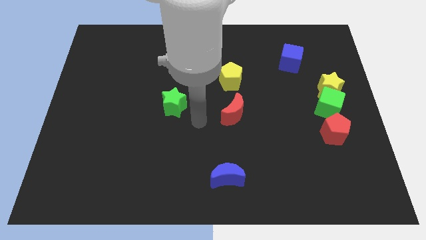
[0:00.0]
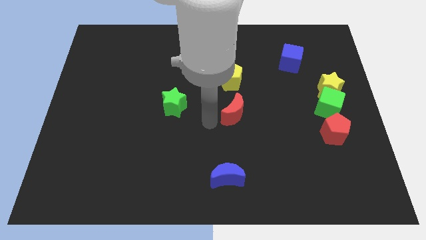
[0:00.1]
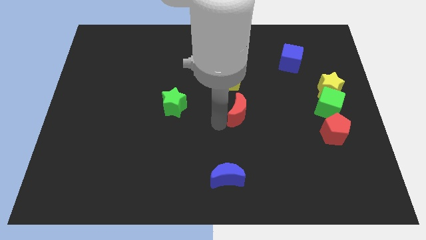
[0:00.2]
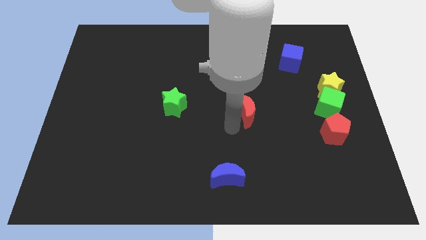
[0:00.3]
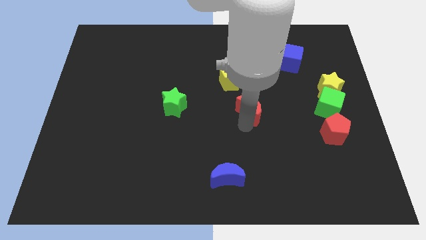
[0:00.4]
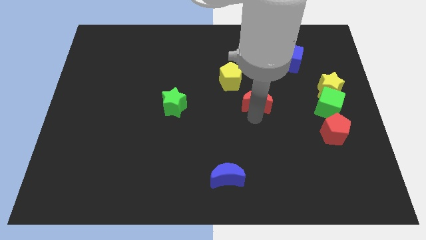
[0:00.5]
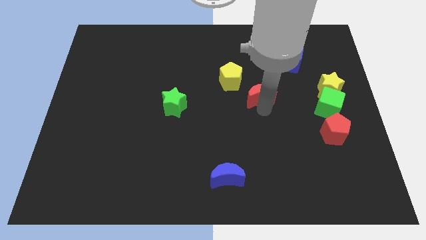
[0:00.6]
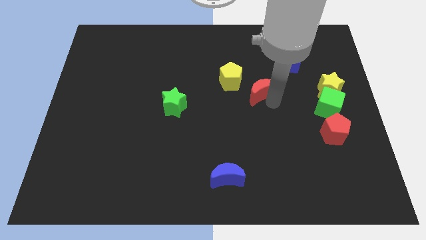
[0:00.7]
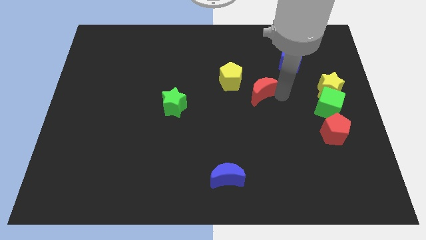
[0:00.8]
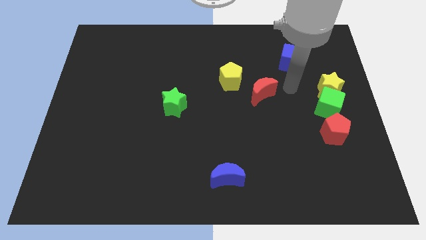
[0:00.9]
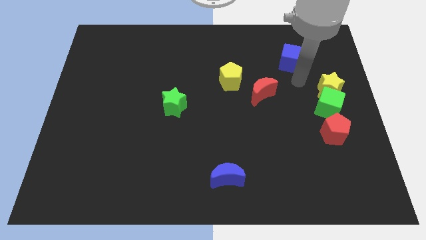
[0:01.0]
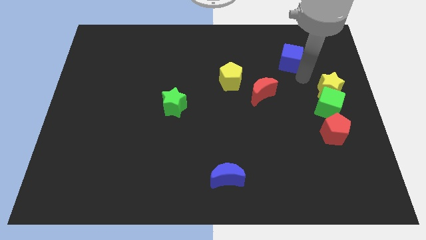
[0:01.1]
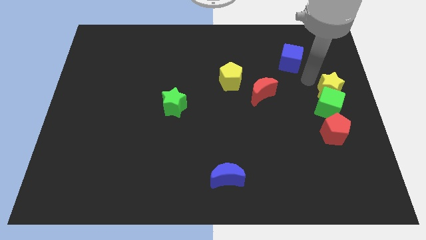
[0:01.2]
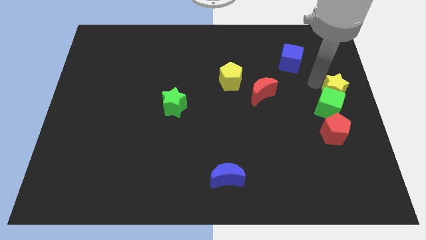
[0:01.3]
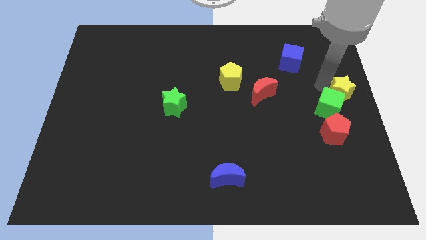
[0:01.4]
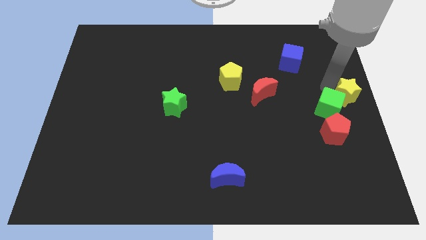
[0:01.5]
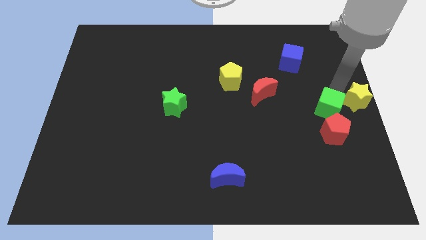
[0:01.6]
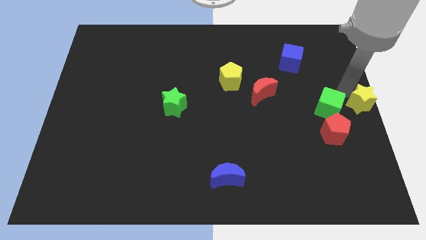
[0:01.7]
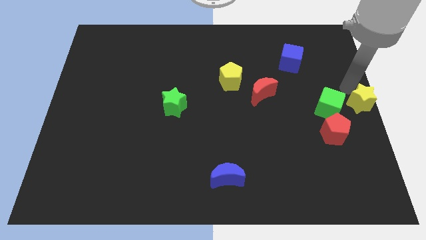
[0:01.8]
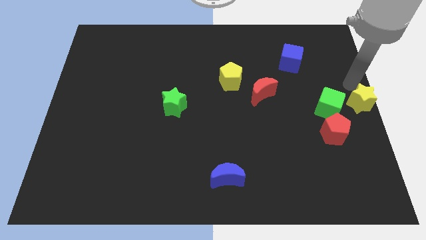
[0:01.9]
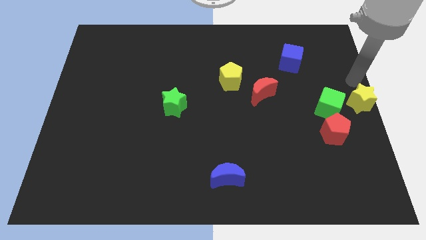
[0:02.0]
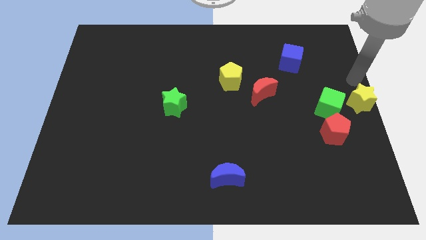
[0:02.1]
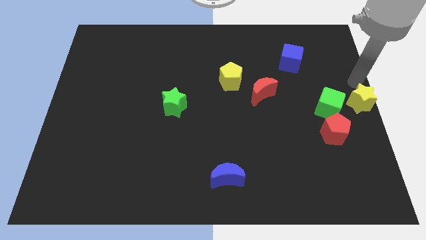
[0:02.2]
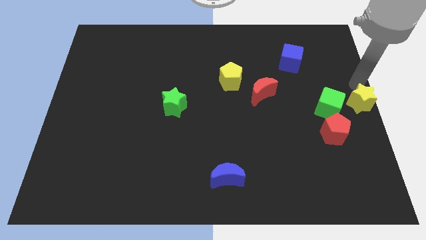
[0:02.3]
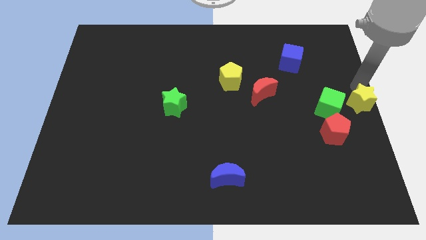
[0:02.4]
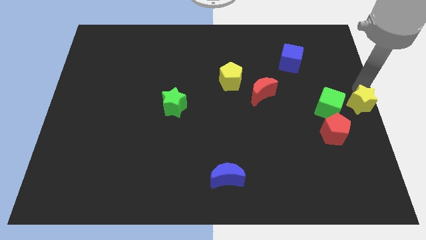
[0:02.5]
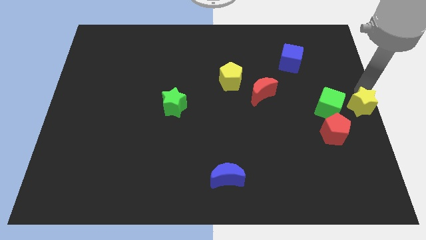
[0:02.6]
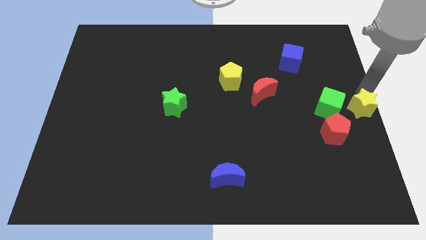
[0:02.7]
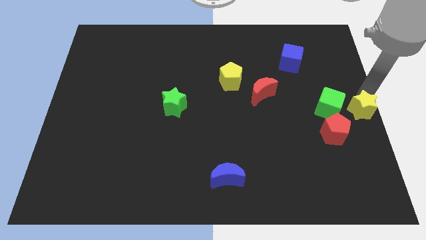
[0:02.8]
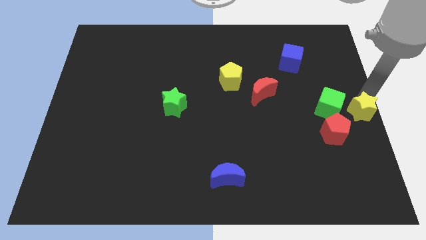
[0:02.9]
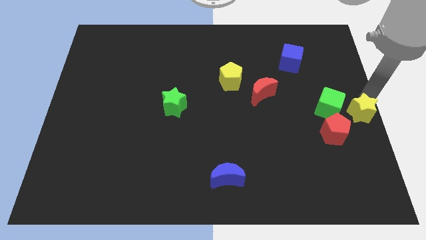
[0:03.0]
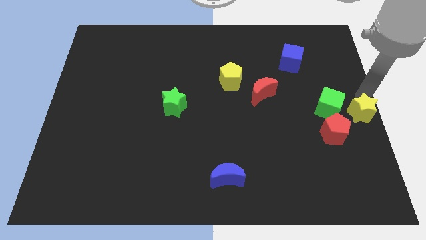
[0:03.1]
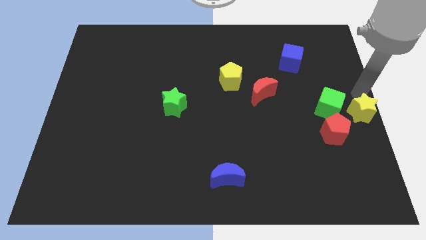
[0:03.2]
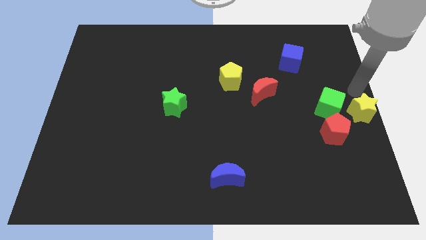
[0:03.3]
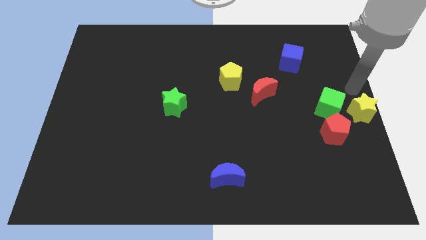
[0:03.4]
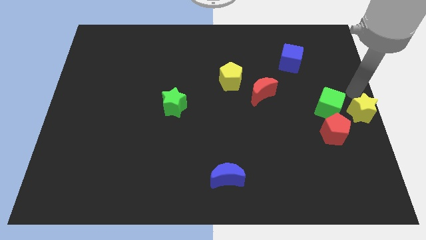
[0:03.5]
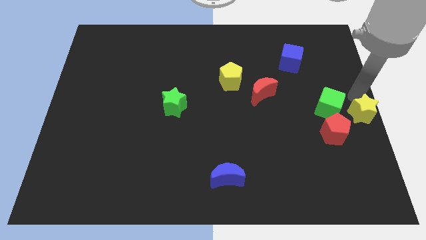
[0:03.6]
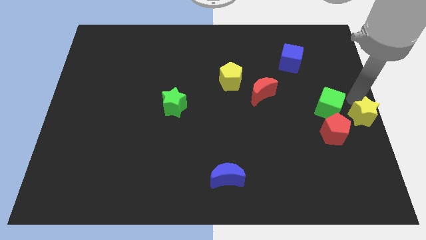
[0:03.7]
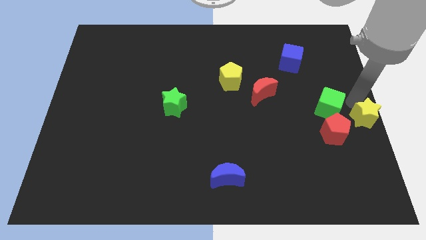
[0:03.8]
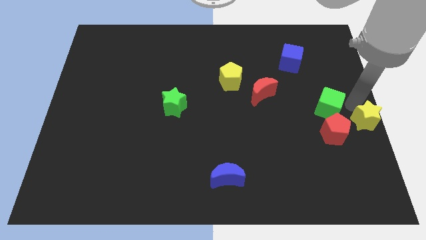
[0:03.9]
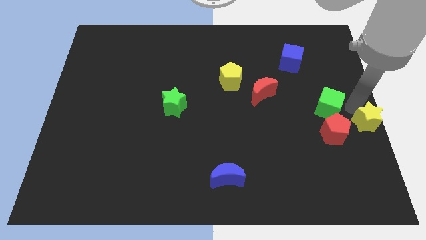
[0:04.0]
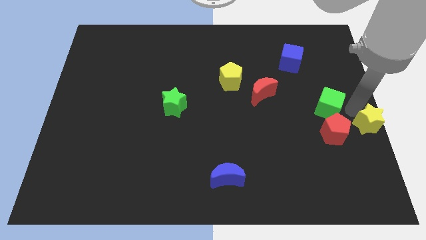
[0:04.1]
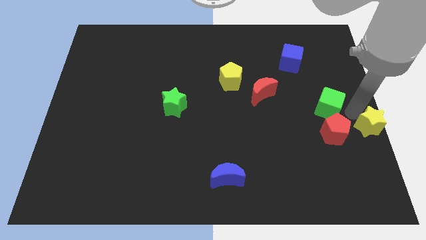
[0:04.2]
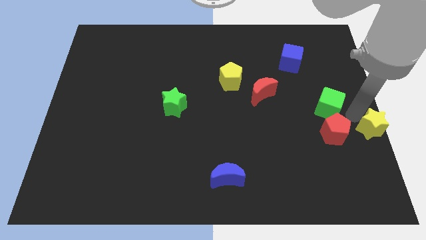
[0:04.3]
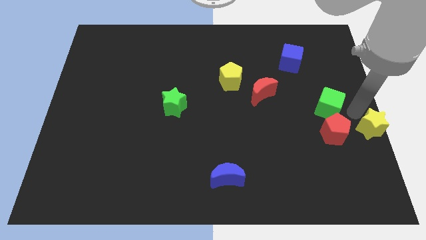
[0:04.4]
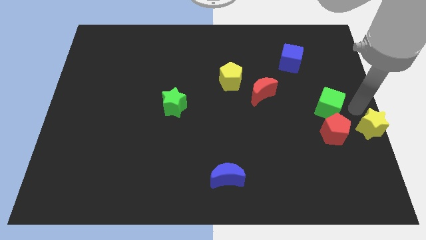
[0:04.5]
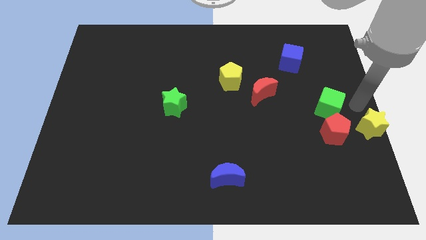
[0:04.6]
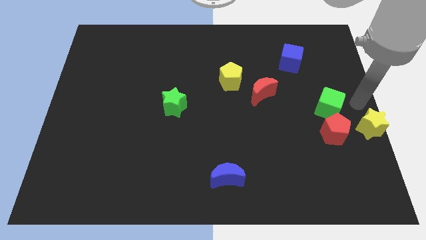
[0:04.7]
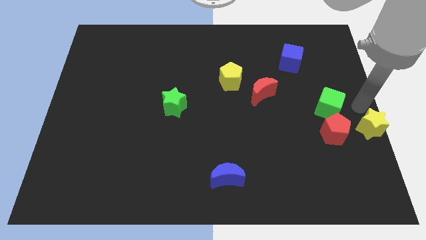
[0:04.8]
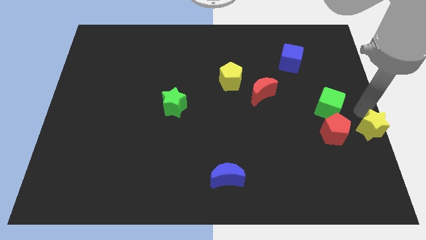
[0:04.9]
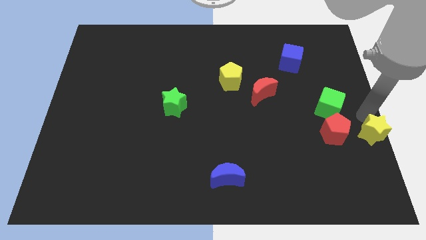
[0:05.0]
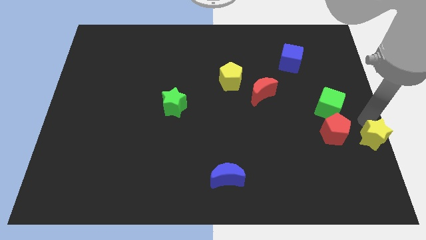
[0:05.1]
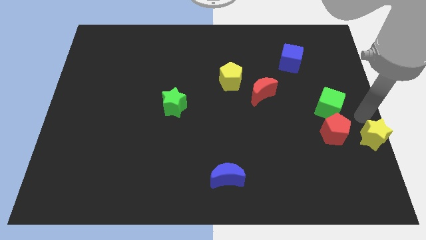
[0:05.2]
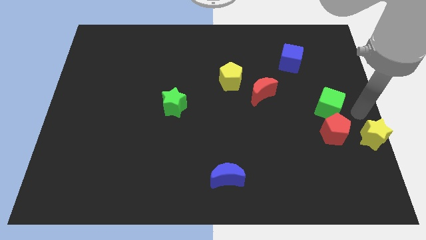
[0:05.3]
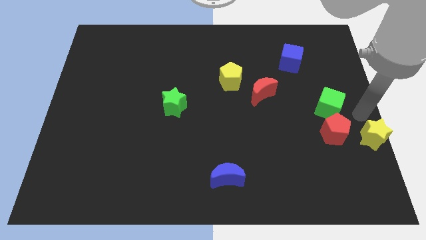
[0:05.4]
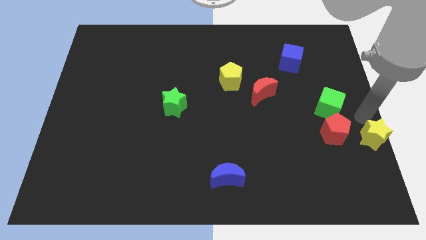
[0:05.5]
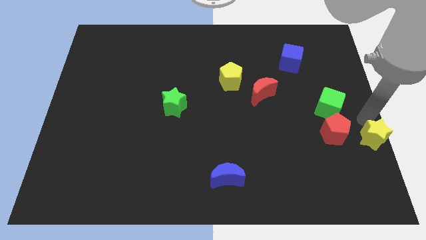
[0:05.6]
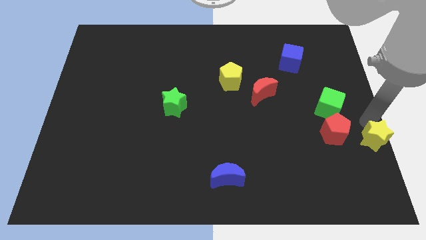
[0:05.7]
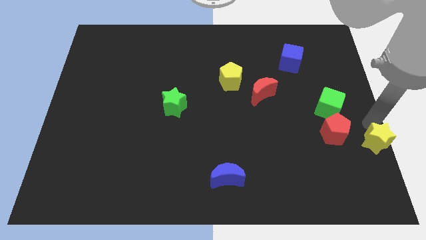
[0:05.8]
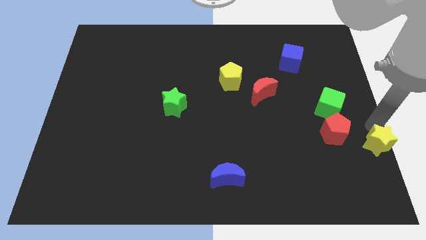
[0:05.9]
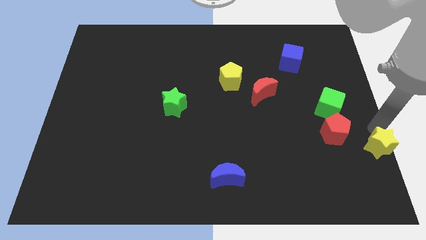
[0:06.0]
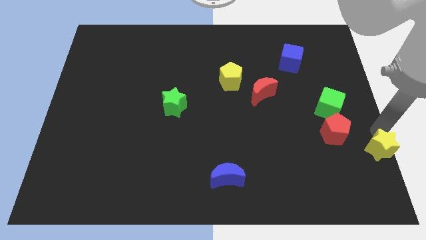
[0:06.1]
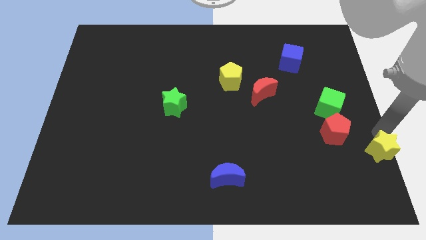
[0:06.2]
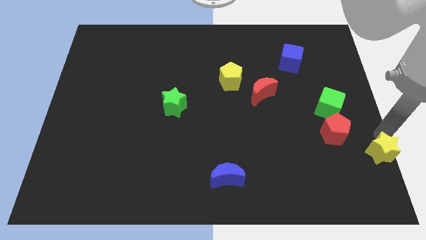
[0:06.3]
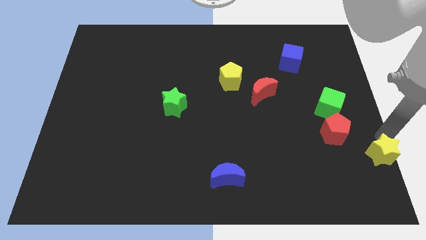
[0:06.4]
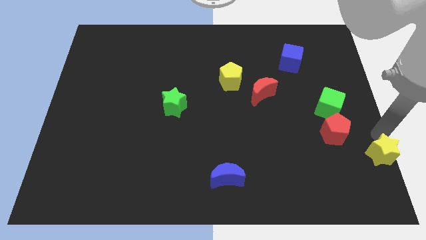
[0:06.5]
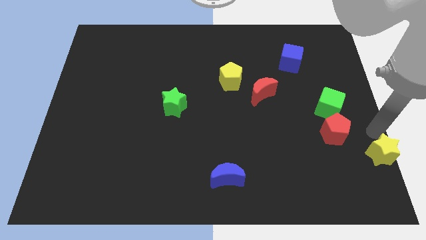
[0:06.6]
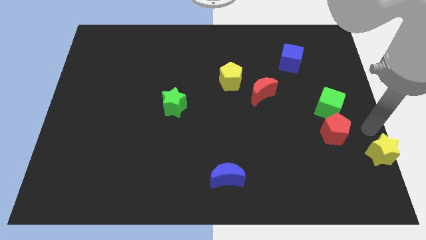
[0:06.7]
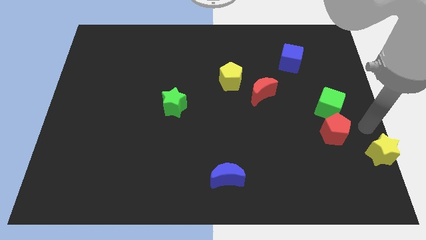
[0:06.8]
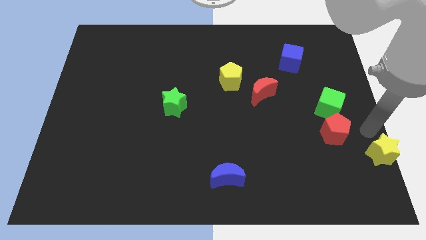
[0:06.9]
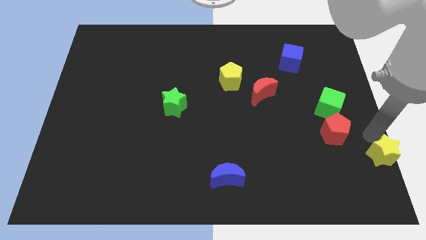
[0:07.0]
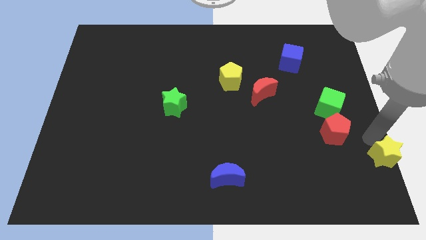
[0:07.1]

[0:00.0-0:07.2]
push the yellow star to the bottom right corner
